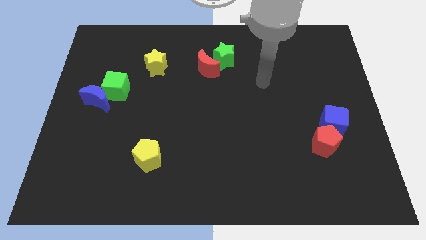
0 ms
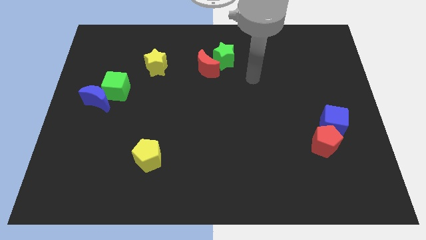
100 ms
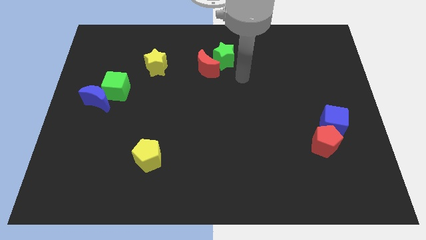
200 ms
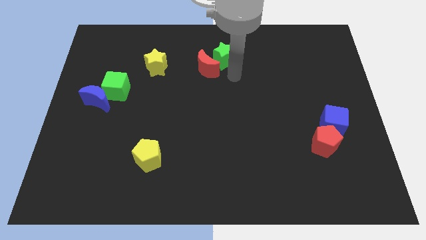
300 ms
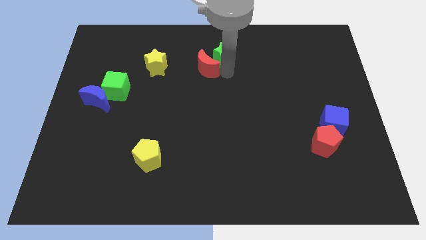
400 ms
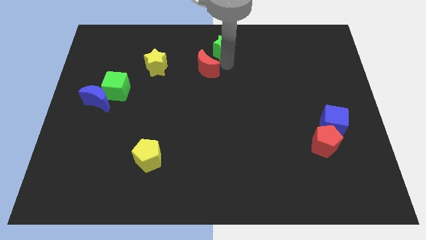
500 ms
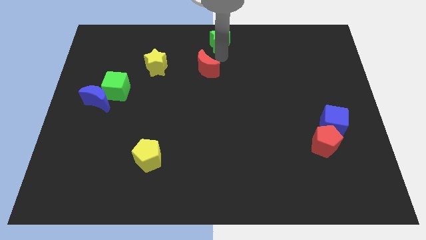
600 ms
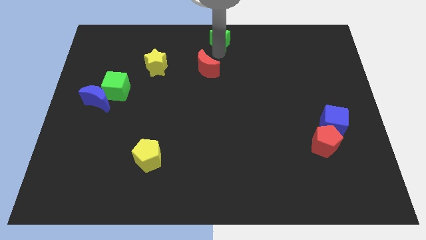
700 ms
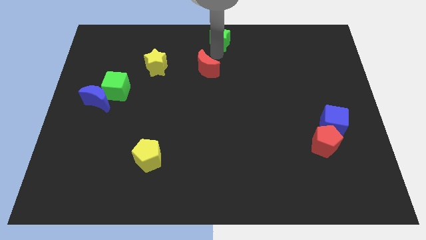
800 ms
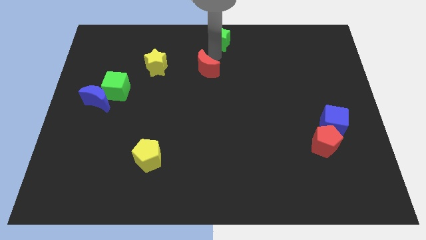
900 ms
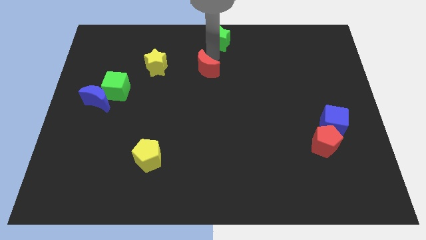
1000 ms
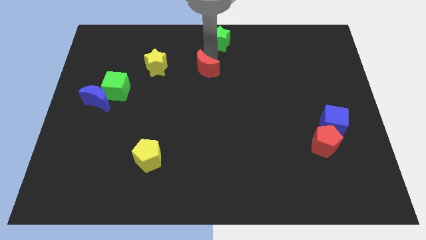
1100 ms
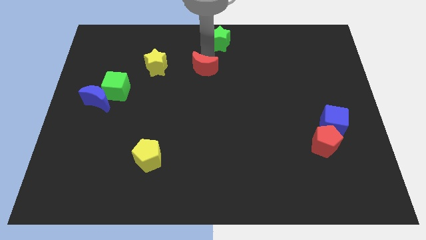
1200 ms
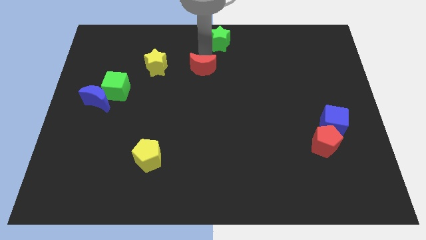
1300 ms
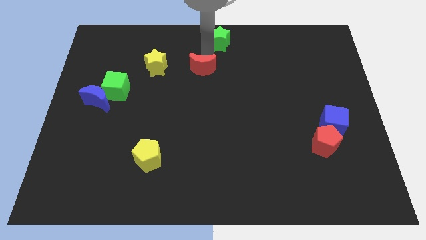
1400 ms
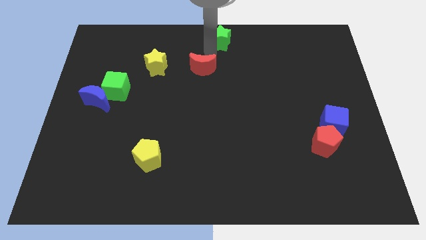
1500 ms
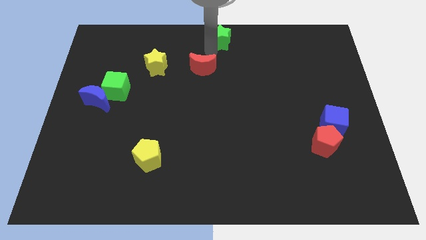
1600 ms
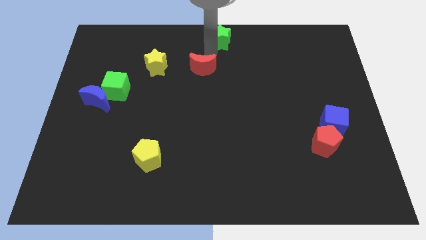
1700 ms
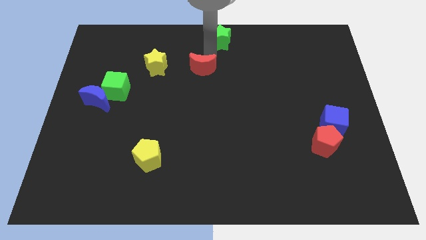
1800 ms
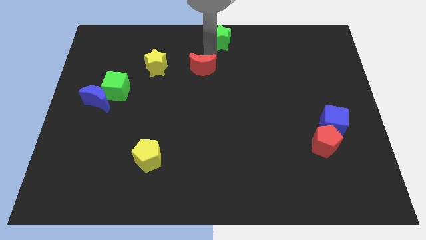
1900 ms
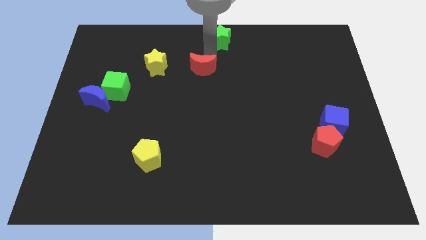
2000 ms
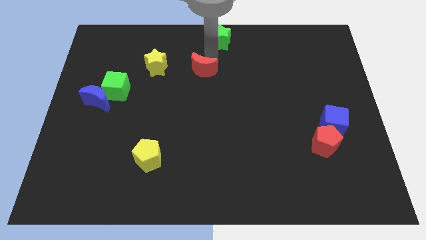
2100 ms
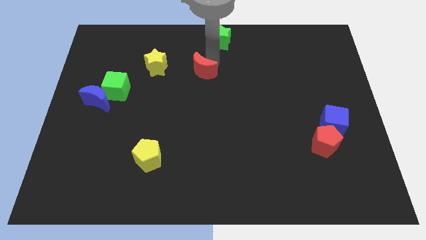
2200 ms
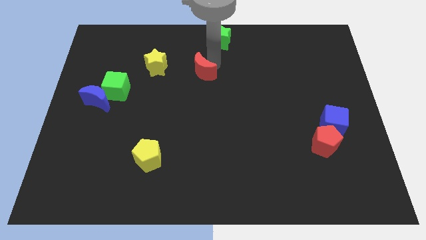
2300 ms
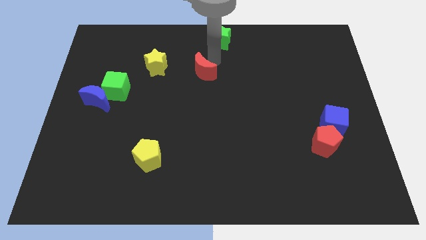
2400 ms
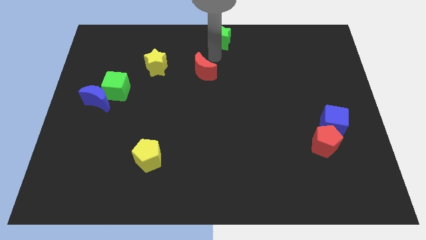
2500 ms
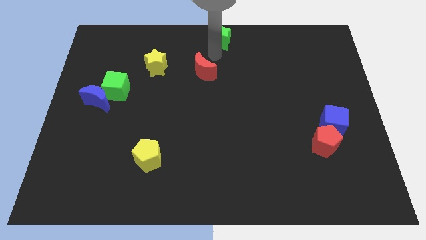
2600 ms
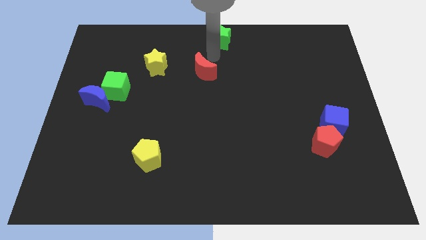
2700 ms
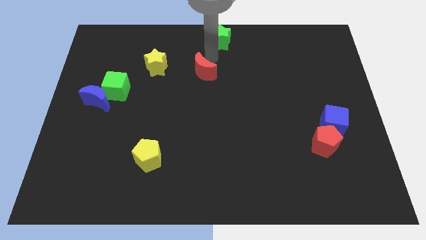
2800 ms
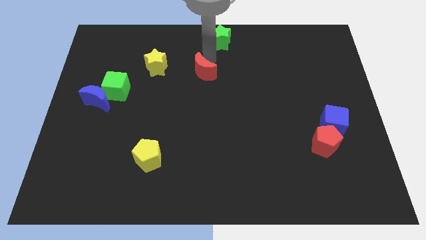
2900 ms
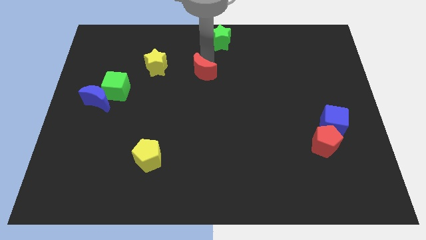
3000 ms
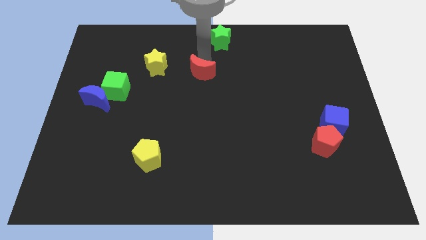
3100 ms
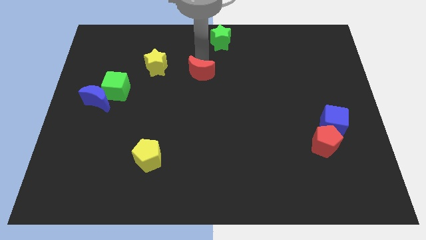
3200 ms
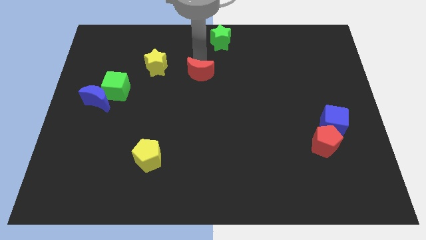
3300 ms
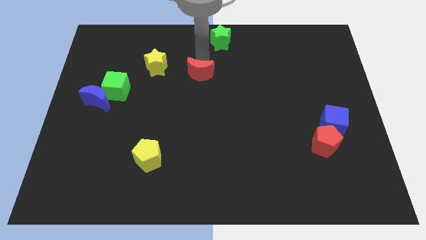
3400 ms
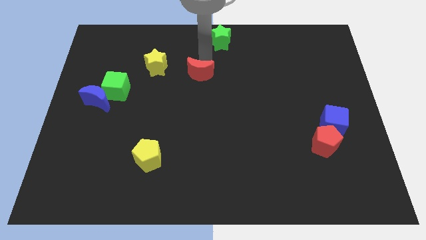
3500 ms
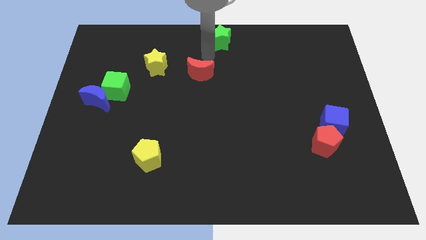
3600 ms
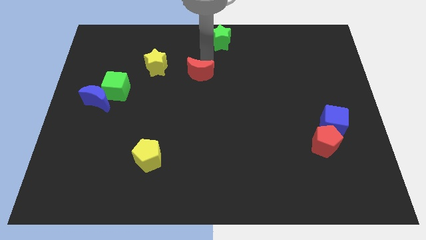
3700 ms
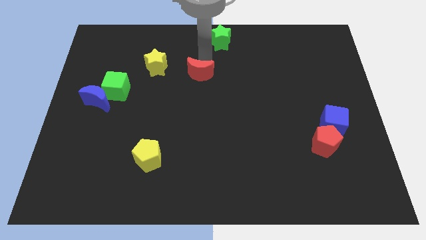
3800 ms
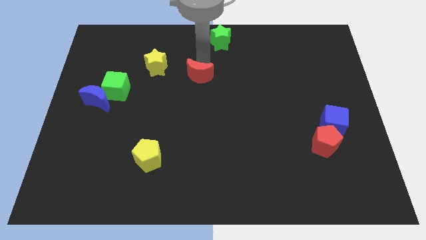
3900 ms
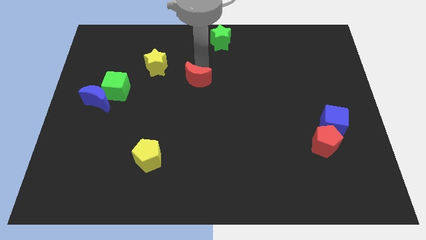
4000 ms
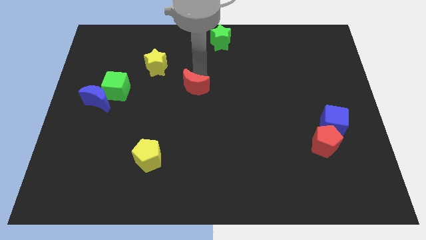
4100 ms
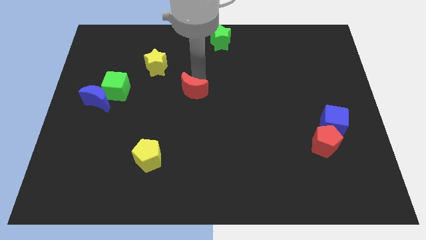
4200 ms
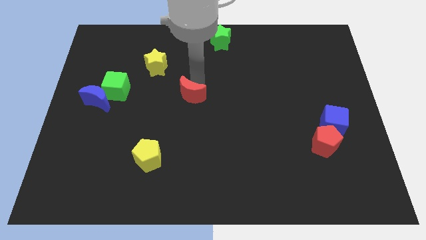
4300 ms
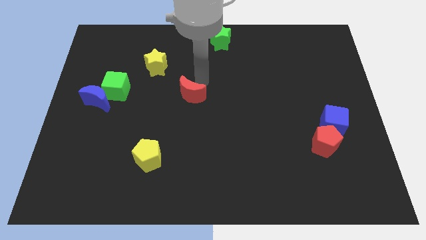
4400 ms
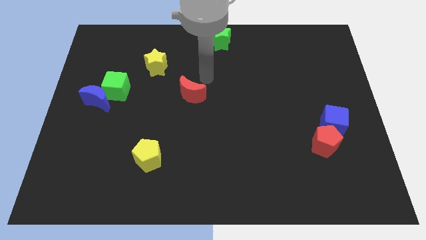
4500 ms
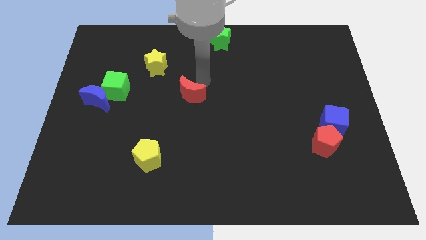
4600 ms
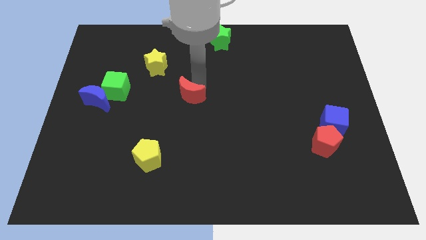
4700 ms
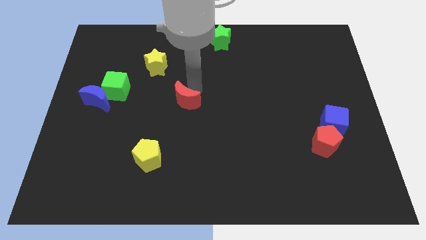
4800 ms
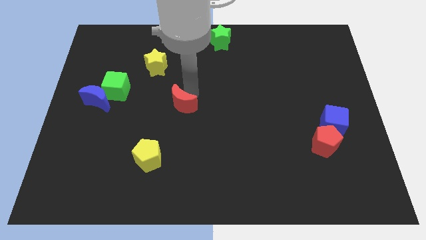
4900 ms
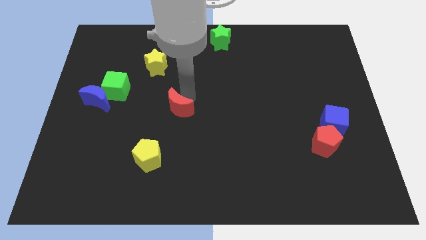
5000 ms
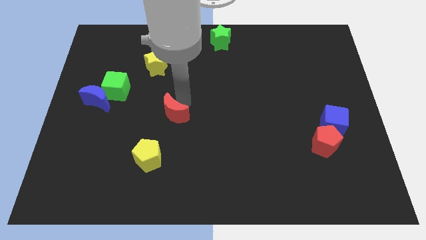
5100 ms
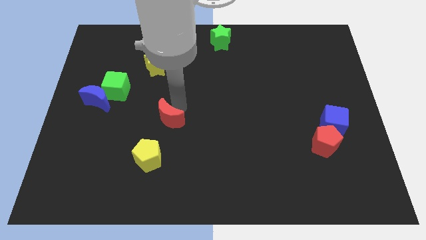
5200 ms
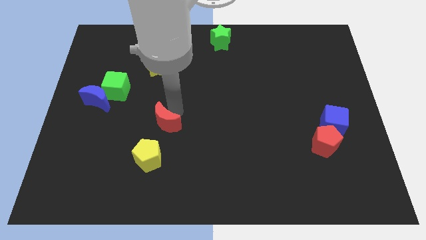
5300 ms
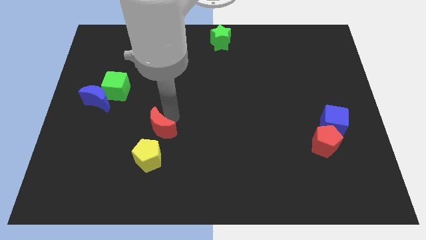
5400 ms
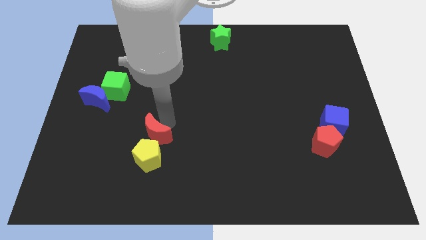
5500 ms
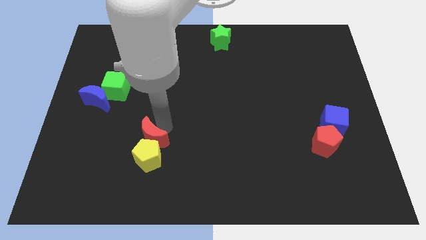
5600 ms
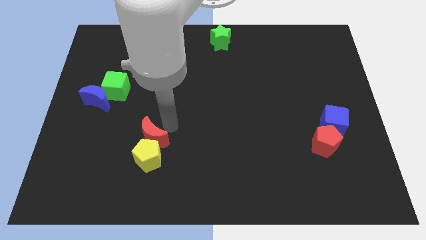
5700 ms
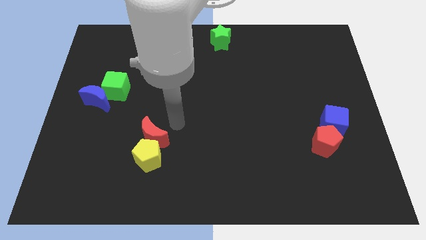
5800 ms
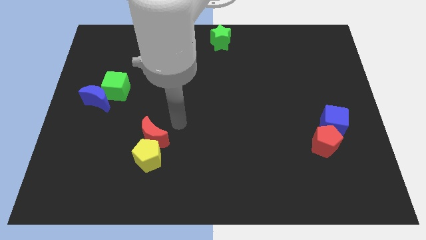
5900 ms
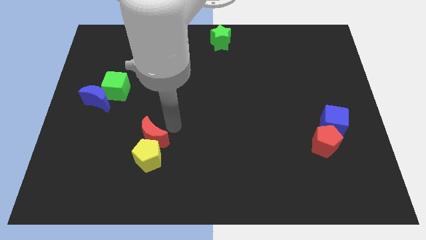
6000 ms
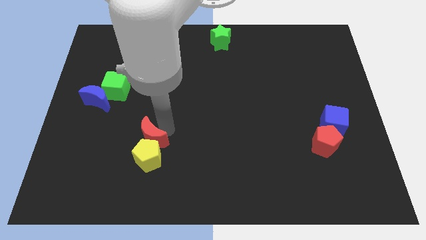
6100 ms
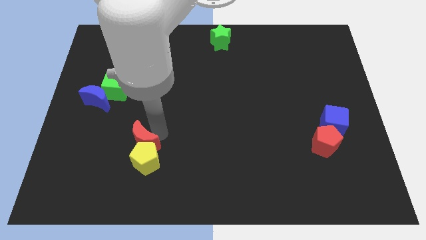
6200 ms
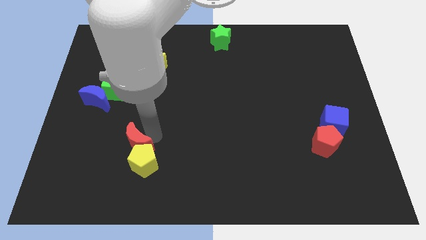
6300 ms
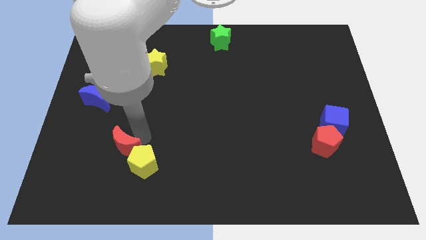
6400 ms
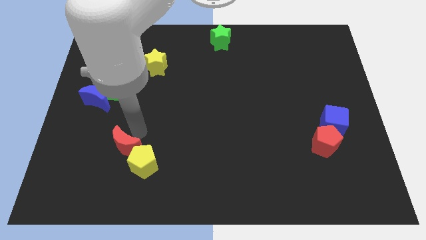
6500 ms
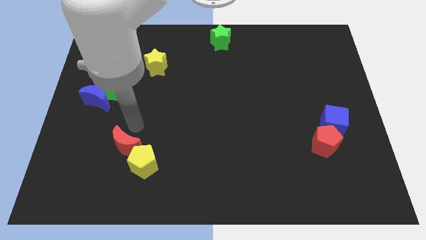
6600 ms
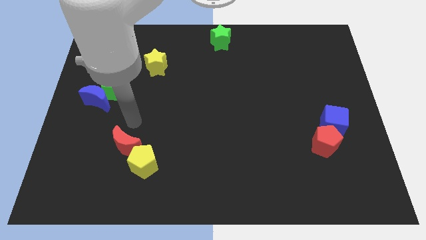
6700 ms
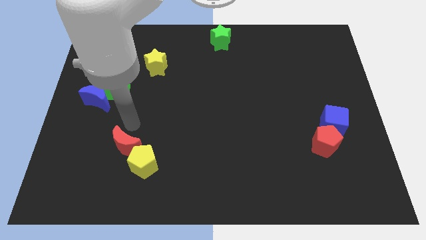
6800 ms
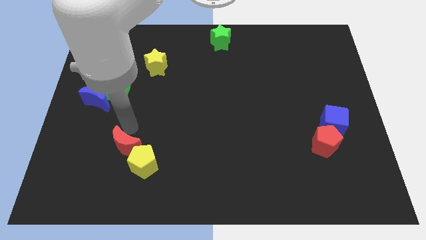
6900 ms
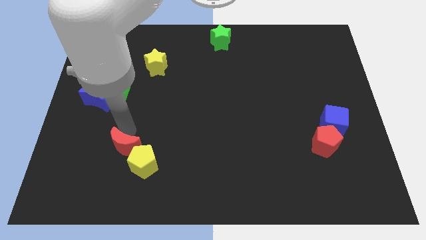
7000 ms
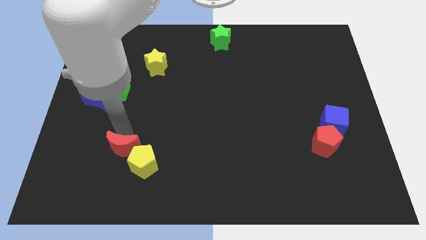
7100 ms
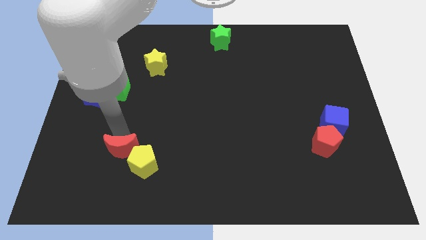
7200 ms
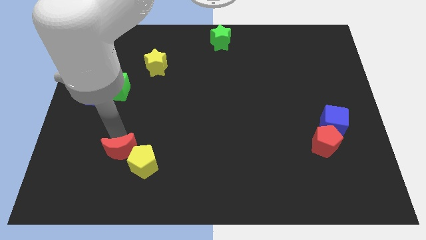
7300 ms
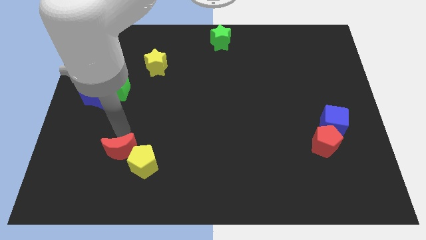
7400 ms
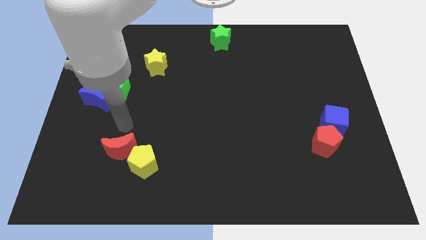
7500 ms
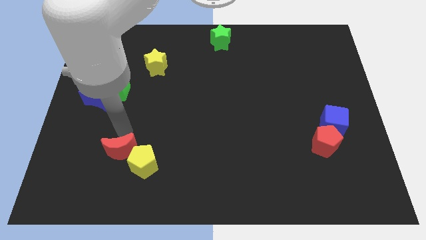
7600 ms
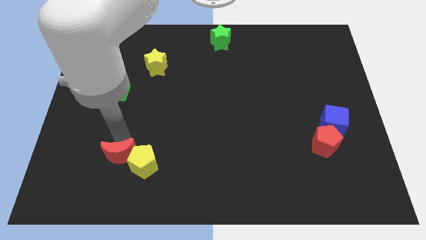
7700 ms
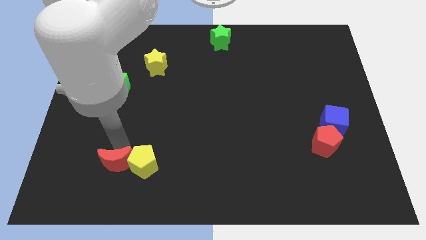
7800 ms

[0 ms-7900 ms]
slide the red moon to the bottom left of the yellow pentagon

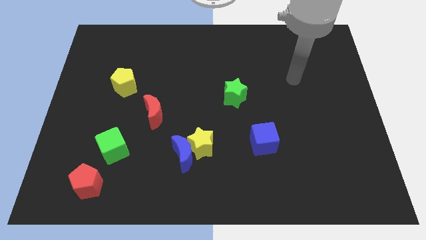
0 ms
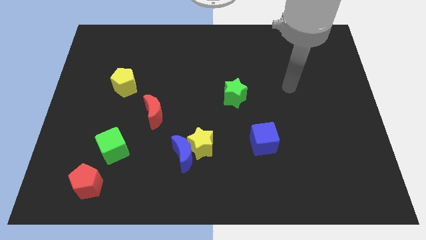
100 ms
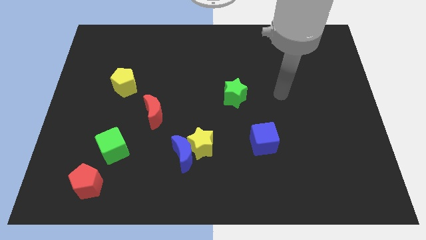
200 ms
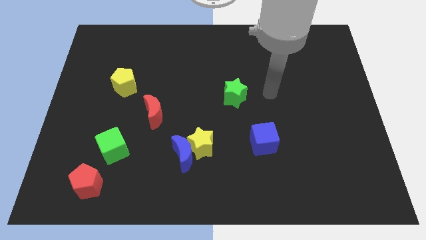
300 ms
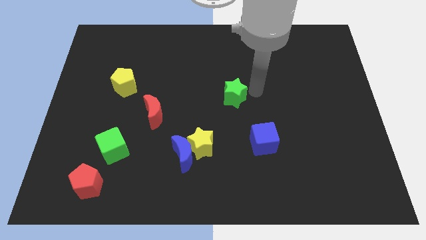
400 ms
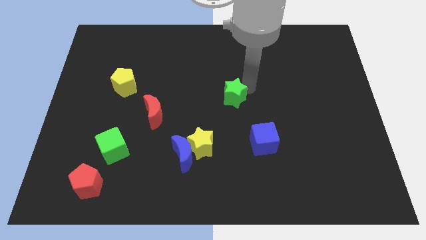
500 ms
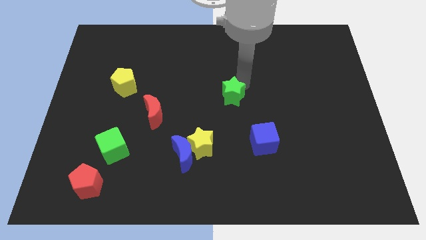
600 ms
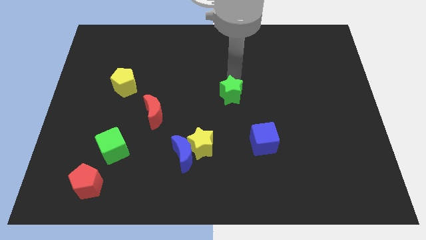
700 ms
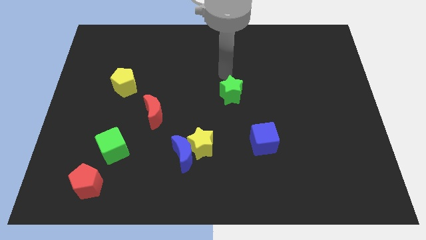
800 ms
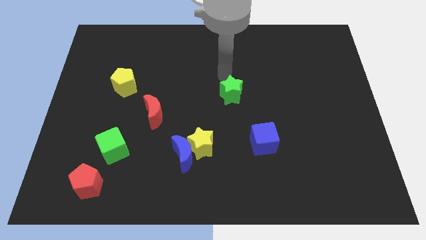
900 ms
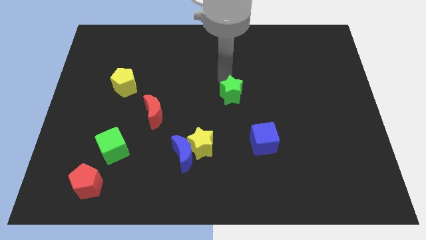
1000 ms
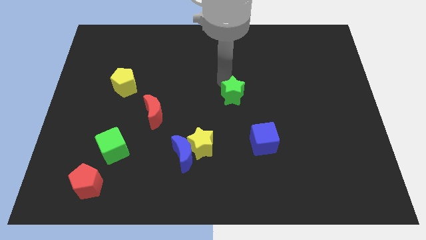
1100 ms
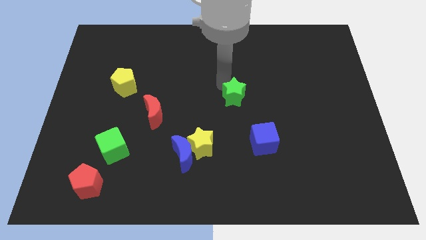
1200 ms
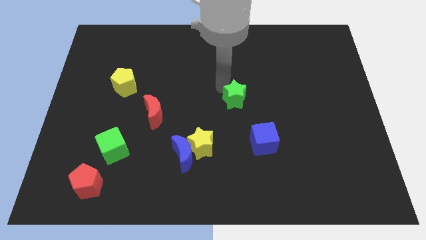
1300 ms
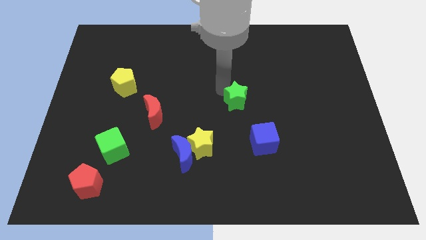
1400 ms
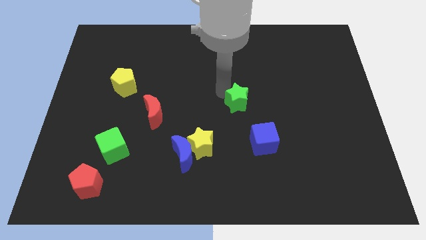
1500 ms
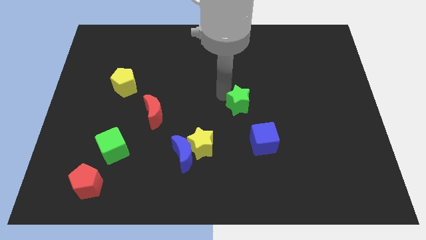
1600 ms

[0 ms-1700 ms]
put the green star to the top left of the blue cube
